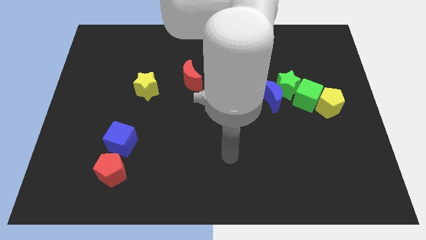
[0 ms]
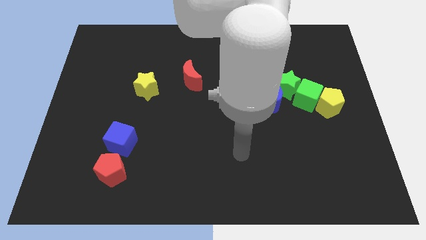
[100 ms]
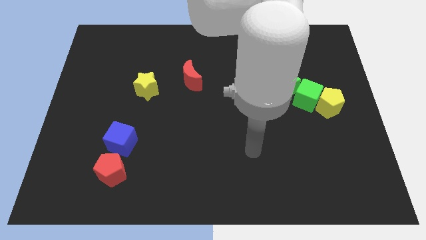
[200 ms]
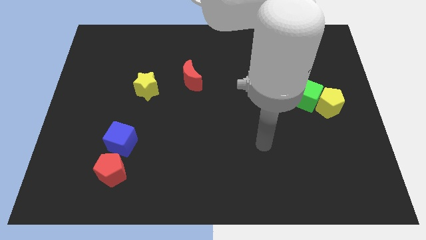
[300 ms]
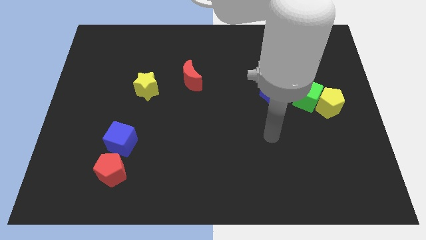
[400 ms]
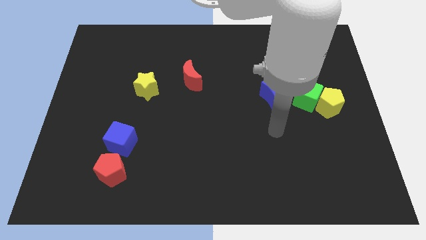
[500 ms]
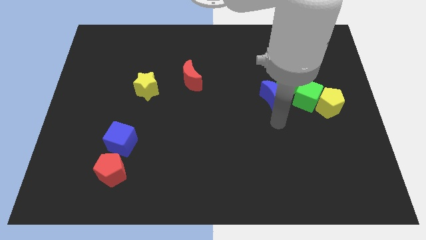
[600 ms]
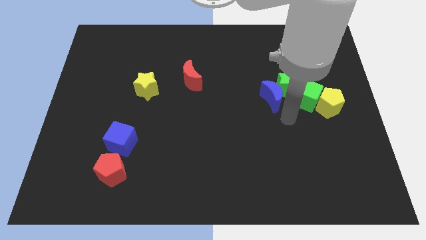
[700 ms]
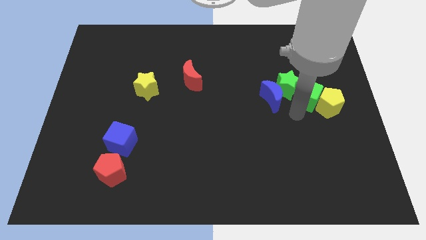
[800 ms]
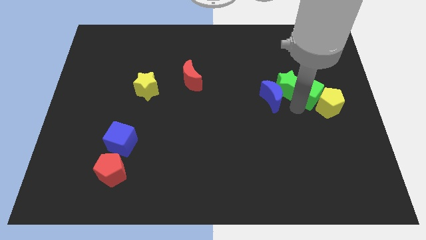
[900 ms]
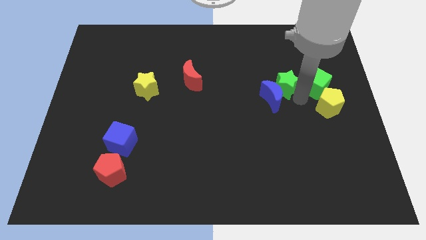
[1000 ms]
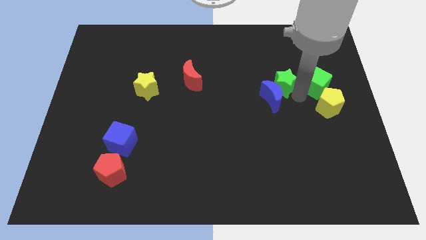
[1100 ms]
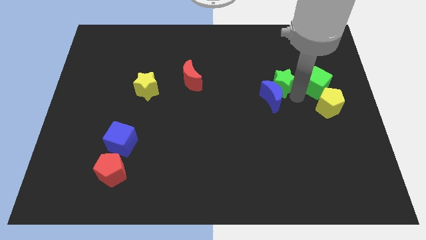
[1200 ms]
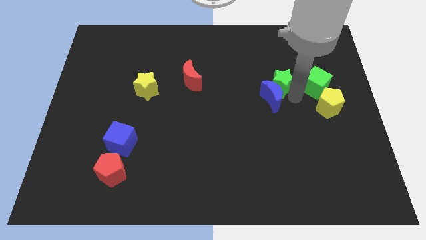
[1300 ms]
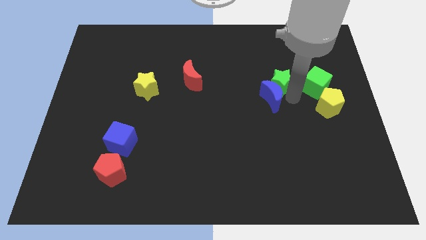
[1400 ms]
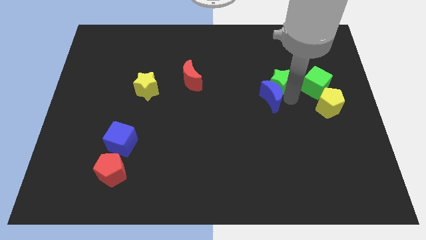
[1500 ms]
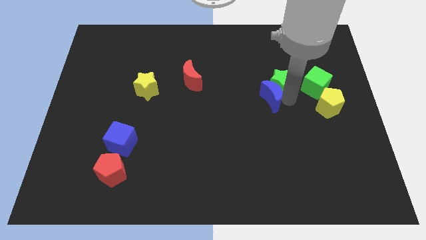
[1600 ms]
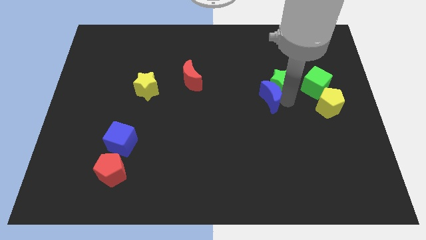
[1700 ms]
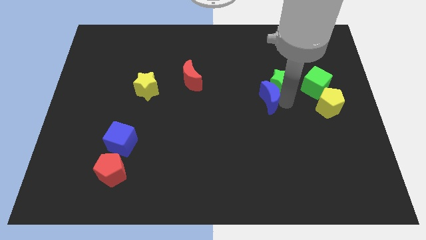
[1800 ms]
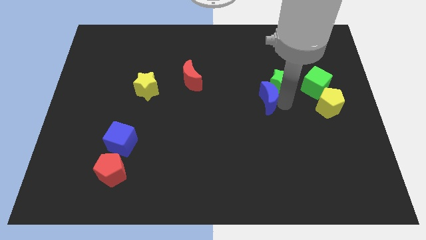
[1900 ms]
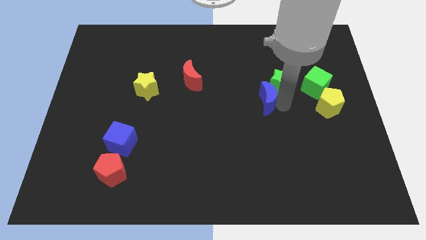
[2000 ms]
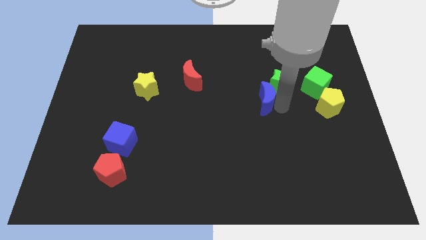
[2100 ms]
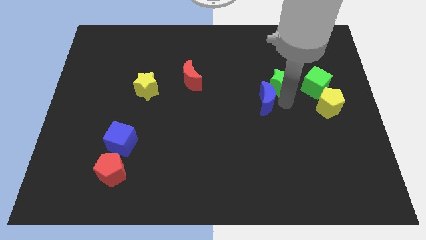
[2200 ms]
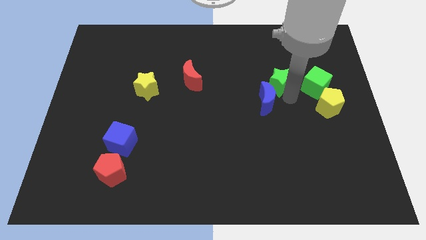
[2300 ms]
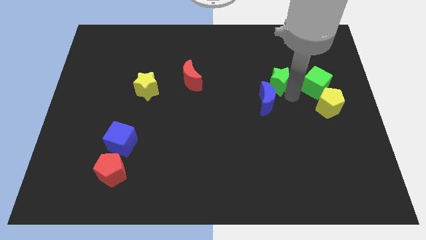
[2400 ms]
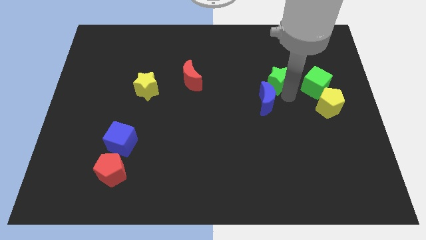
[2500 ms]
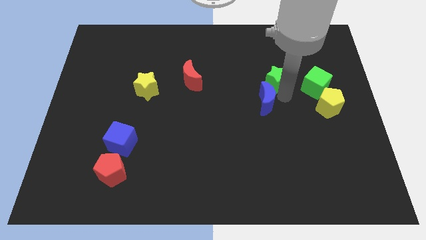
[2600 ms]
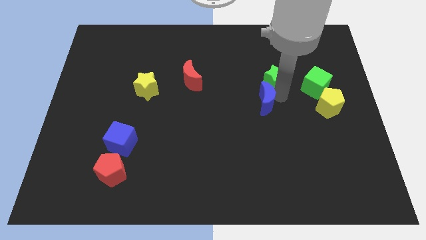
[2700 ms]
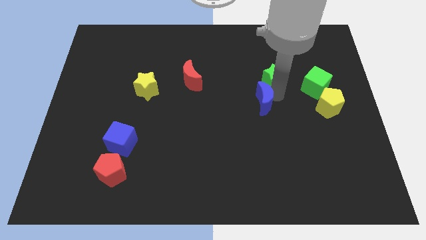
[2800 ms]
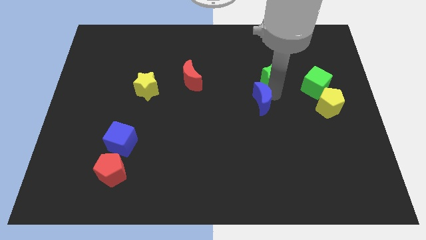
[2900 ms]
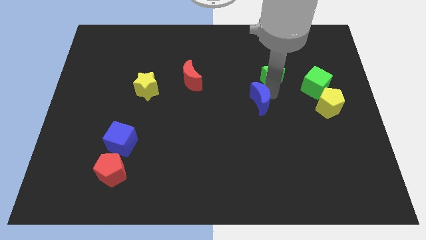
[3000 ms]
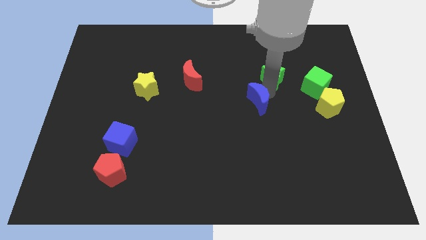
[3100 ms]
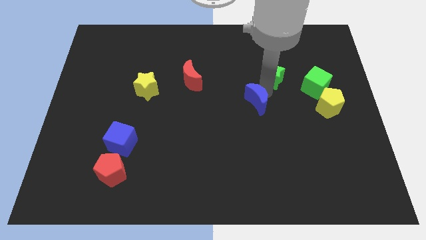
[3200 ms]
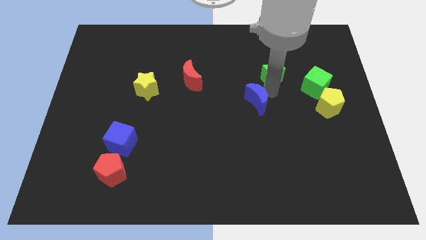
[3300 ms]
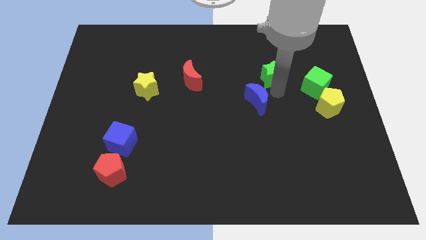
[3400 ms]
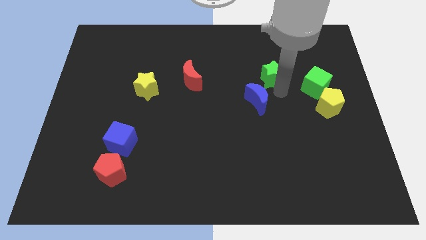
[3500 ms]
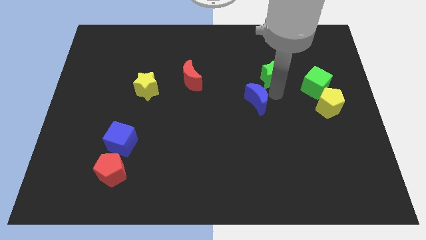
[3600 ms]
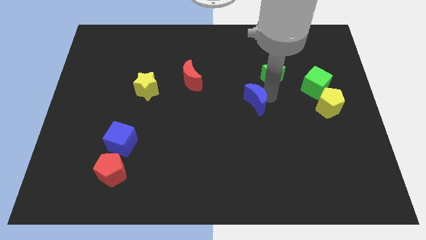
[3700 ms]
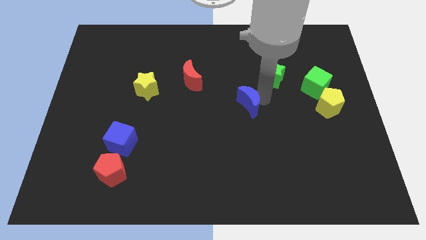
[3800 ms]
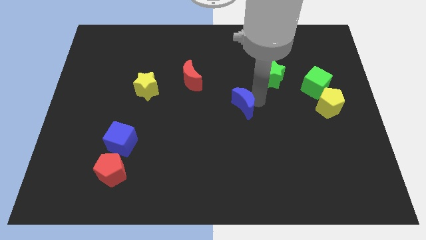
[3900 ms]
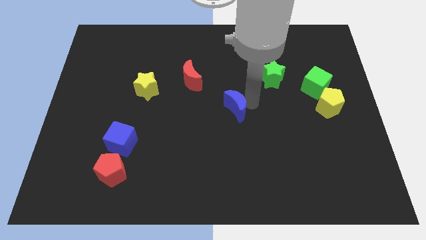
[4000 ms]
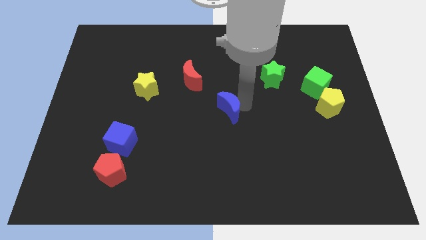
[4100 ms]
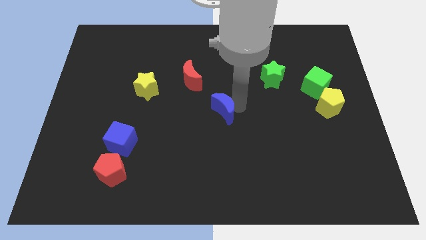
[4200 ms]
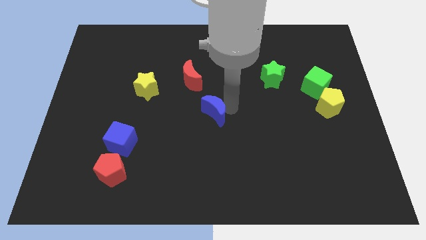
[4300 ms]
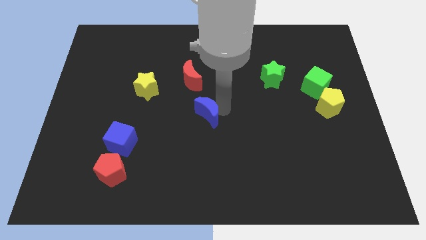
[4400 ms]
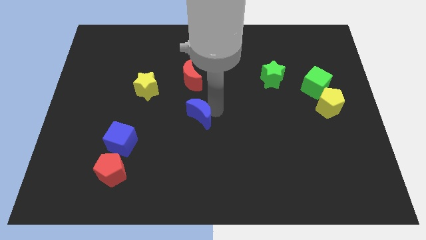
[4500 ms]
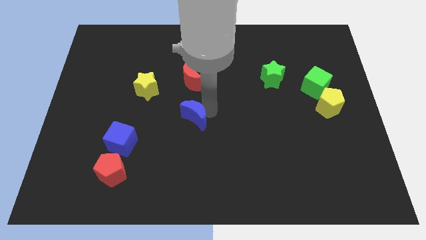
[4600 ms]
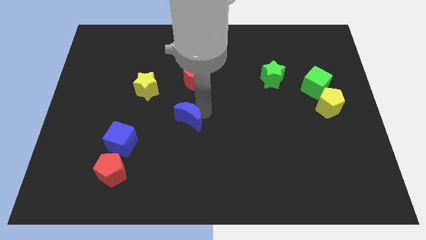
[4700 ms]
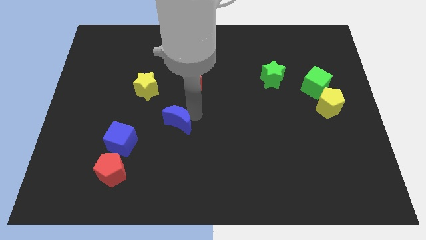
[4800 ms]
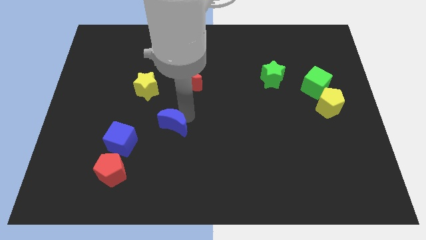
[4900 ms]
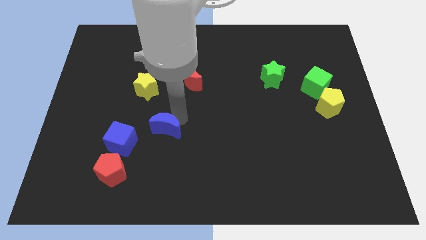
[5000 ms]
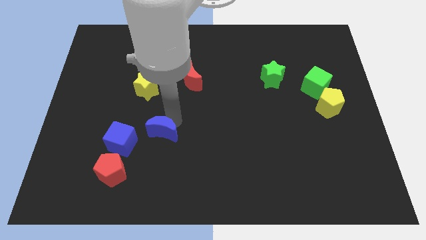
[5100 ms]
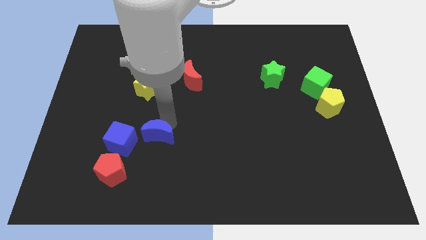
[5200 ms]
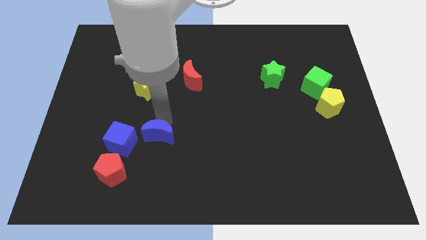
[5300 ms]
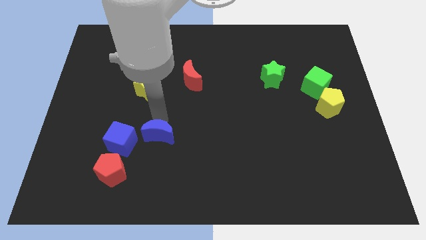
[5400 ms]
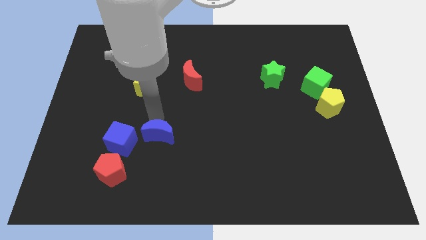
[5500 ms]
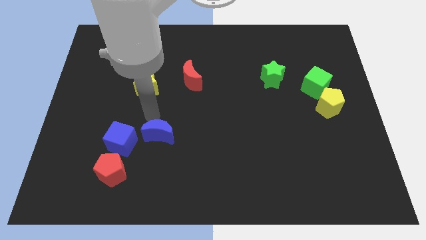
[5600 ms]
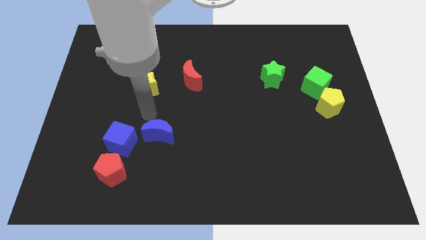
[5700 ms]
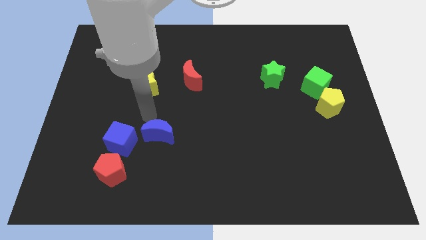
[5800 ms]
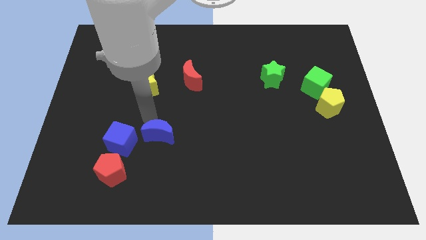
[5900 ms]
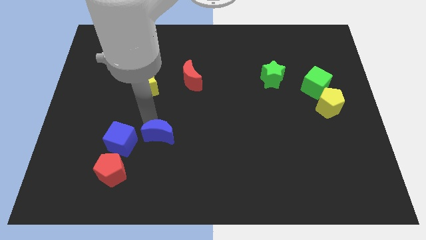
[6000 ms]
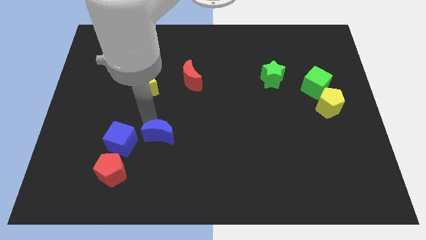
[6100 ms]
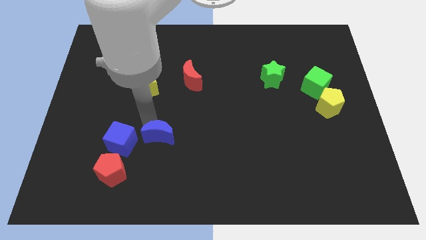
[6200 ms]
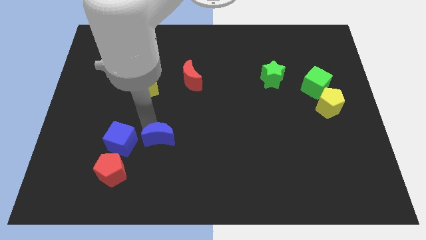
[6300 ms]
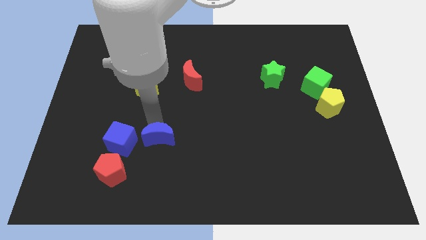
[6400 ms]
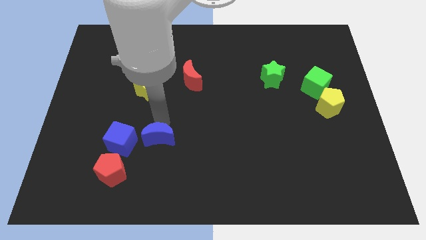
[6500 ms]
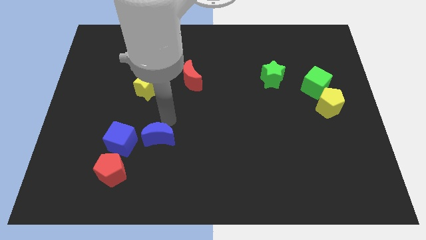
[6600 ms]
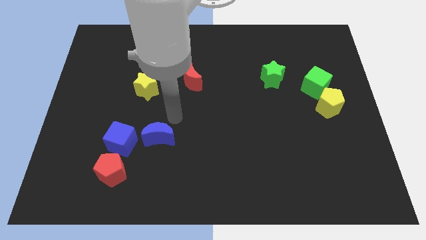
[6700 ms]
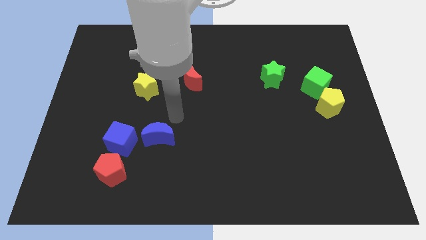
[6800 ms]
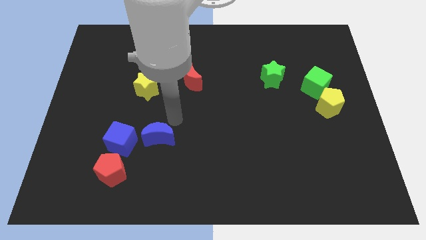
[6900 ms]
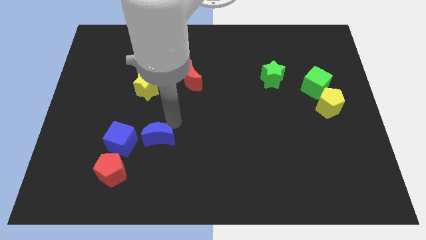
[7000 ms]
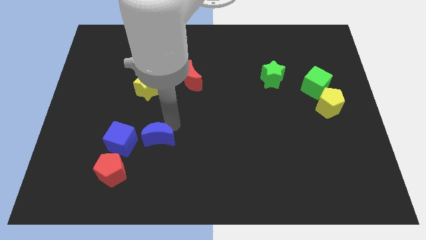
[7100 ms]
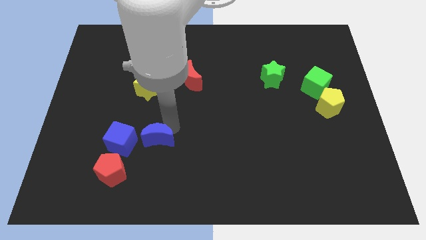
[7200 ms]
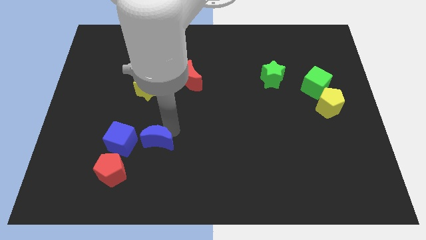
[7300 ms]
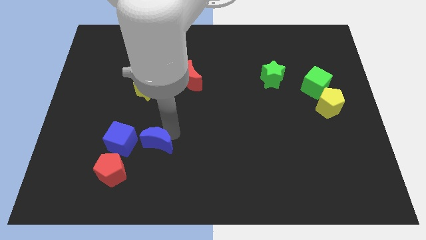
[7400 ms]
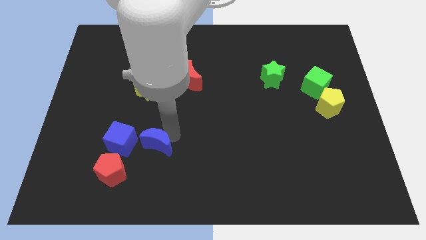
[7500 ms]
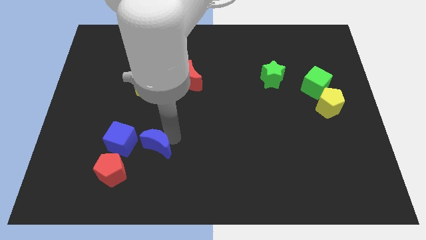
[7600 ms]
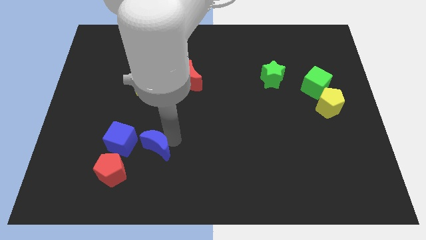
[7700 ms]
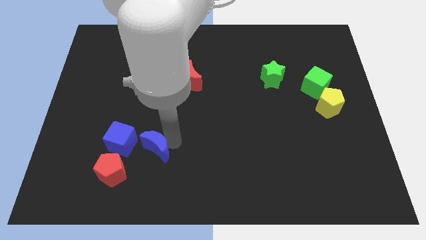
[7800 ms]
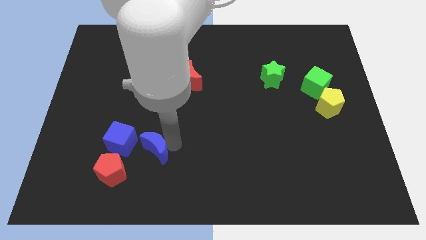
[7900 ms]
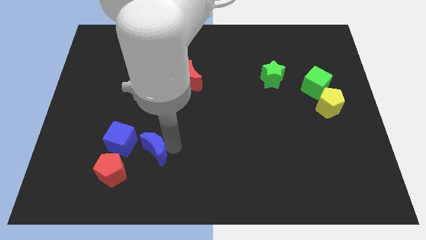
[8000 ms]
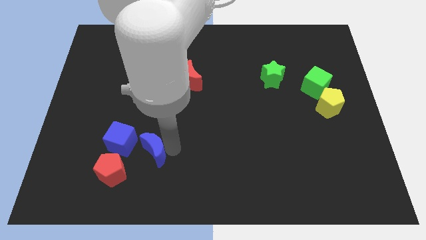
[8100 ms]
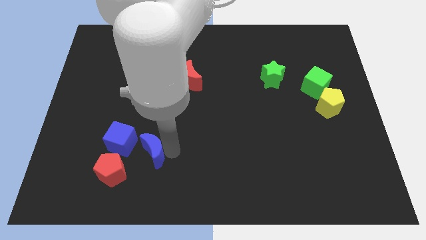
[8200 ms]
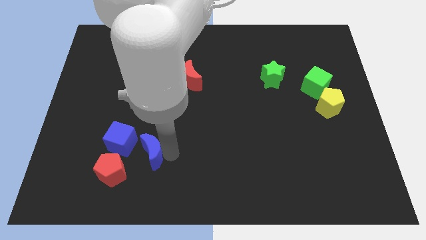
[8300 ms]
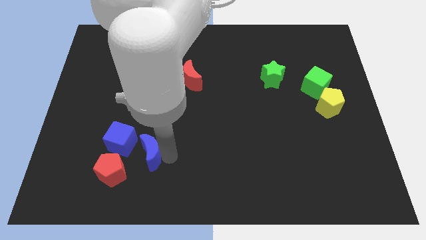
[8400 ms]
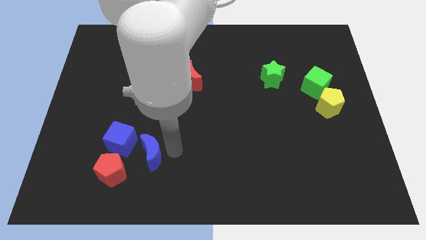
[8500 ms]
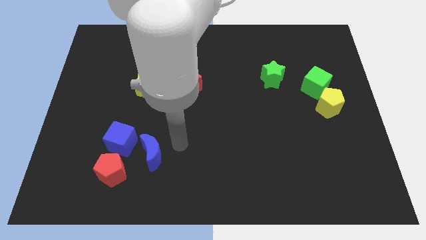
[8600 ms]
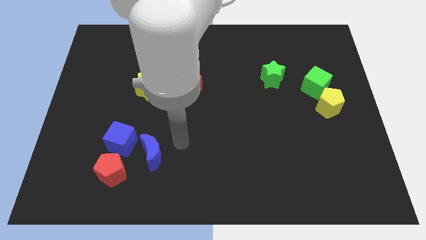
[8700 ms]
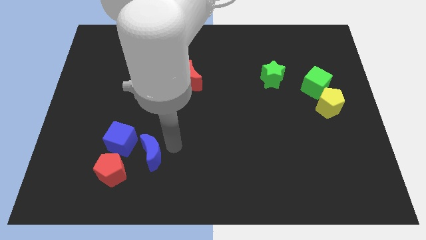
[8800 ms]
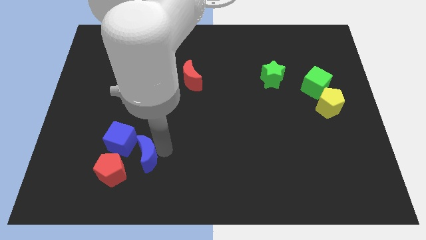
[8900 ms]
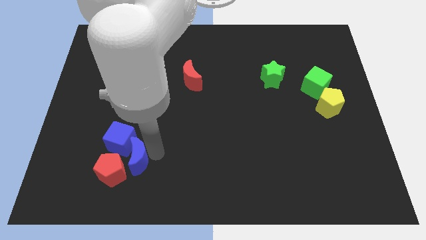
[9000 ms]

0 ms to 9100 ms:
put the blue moon close to the red pentagon
